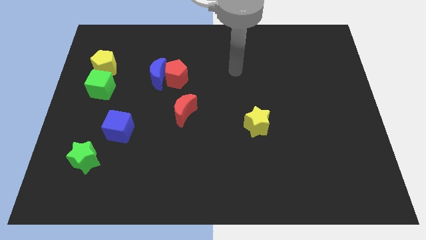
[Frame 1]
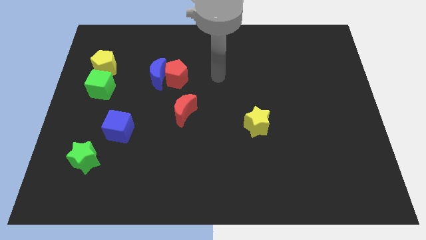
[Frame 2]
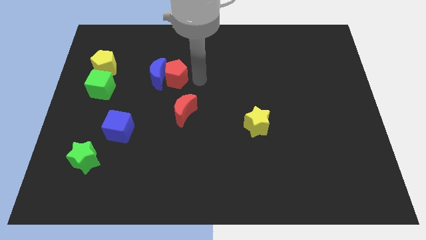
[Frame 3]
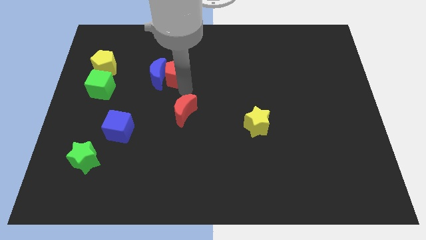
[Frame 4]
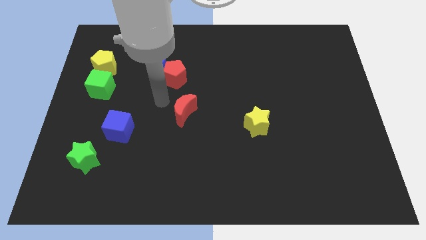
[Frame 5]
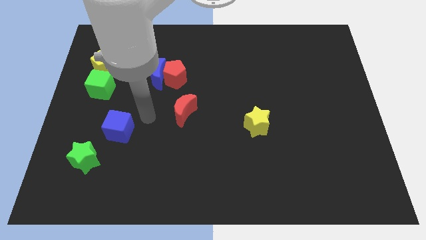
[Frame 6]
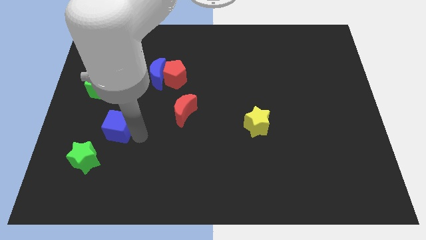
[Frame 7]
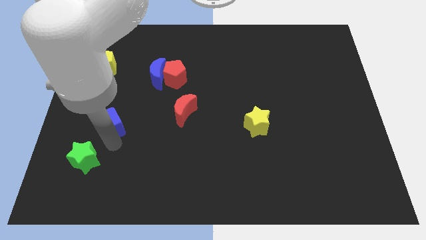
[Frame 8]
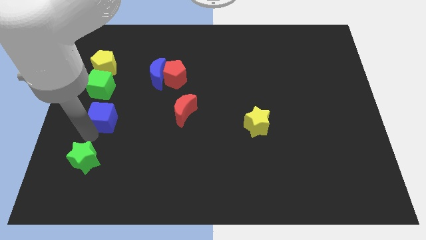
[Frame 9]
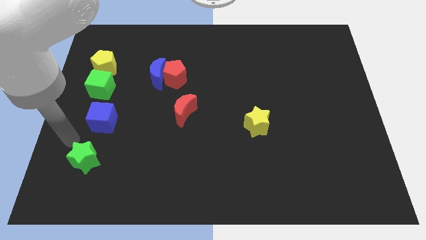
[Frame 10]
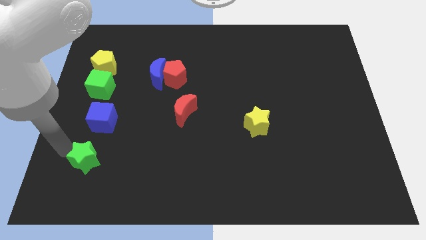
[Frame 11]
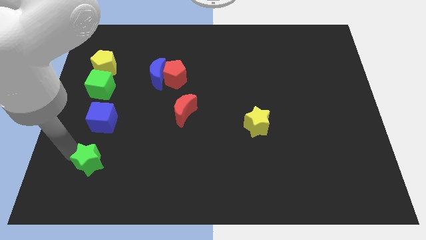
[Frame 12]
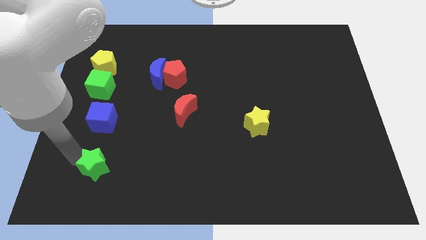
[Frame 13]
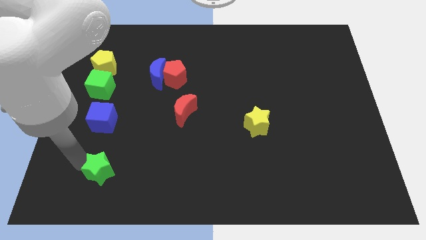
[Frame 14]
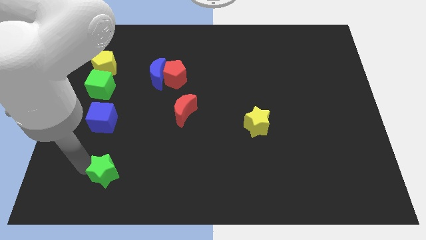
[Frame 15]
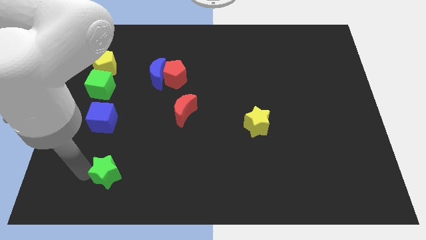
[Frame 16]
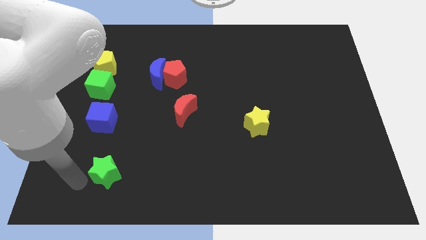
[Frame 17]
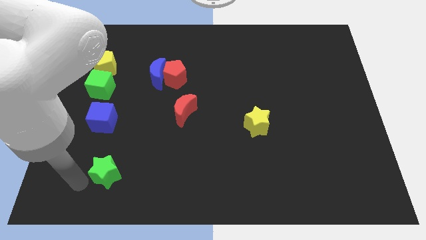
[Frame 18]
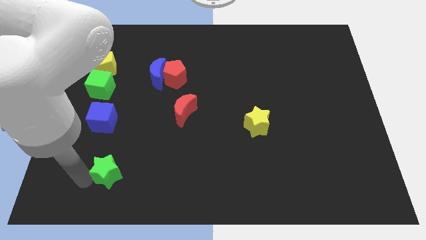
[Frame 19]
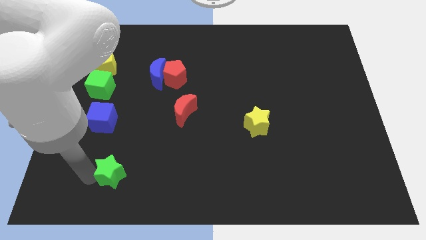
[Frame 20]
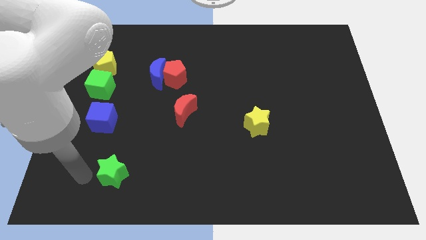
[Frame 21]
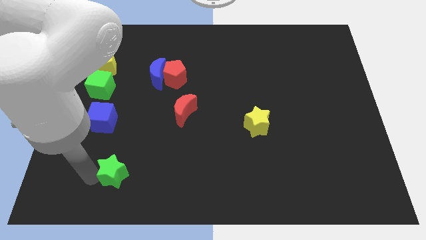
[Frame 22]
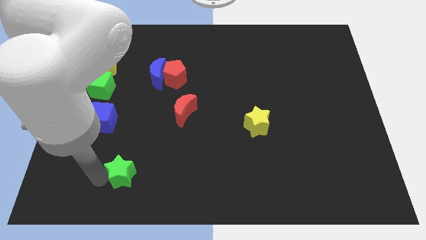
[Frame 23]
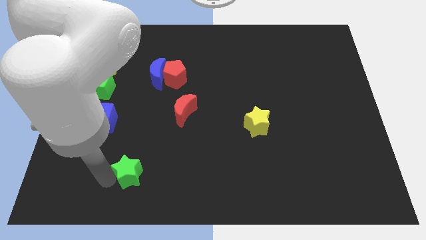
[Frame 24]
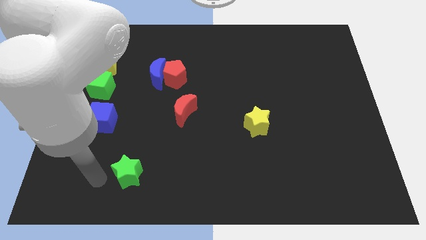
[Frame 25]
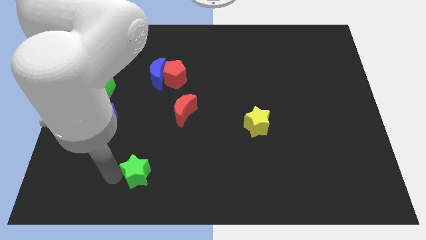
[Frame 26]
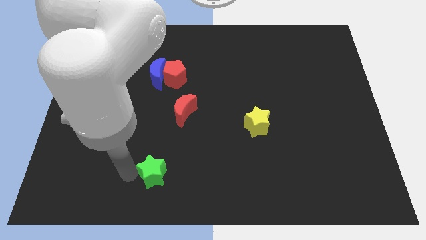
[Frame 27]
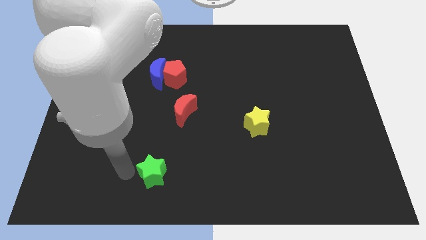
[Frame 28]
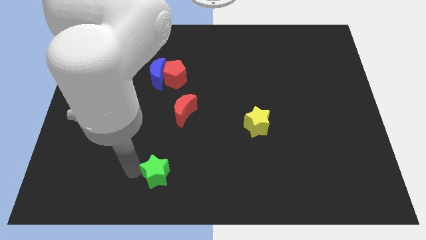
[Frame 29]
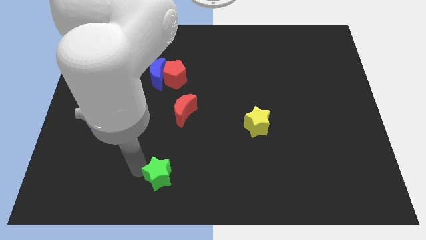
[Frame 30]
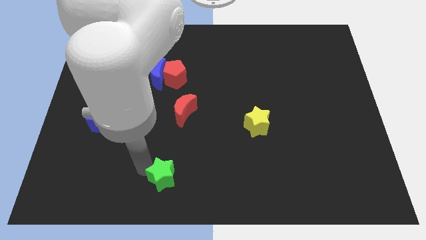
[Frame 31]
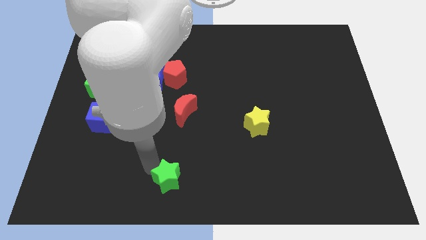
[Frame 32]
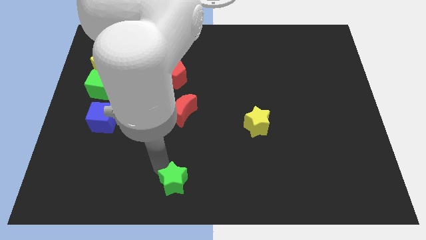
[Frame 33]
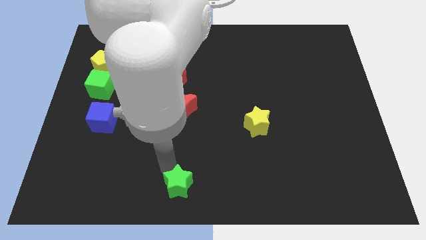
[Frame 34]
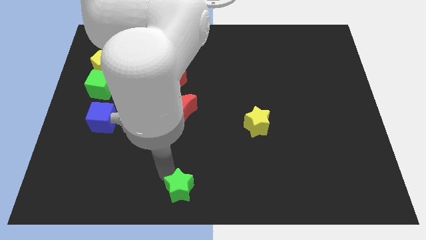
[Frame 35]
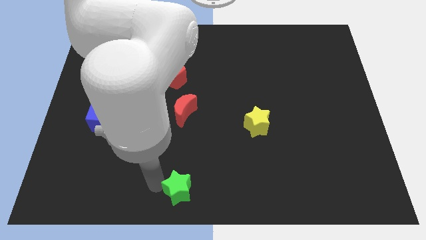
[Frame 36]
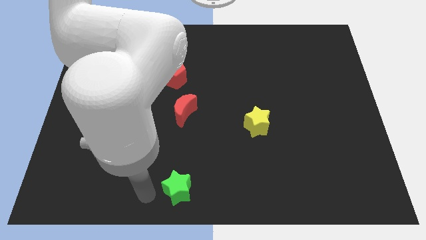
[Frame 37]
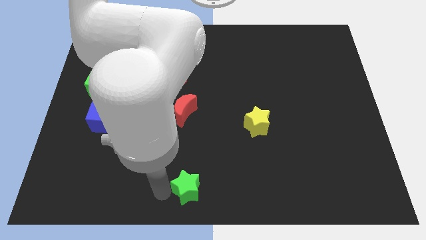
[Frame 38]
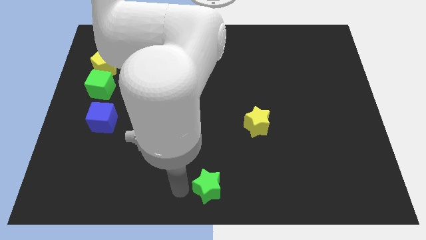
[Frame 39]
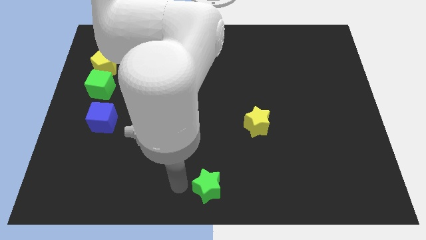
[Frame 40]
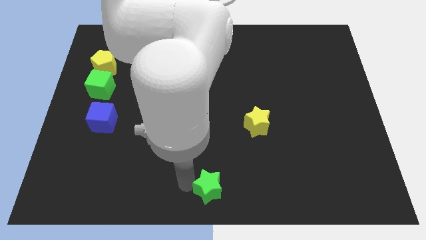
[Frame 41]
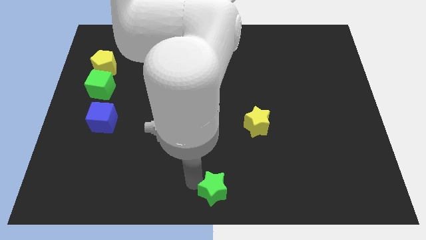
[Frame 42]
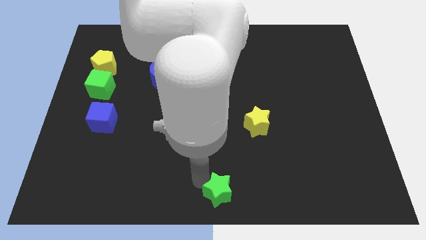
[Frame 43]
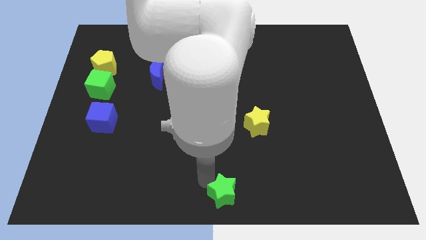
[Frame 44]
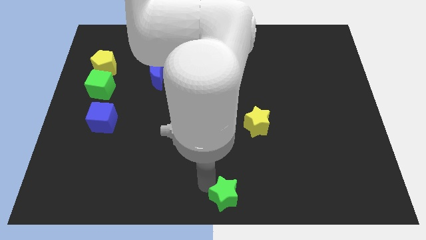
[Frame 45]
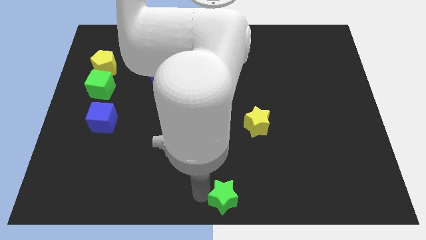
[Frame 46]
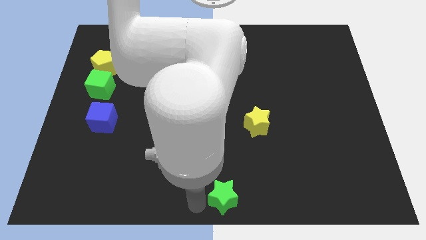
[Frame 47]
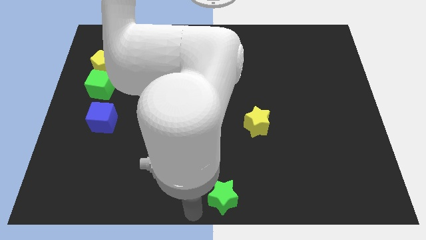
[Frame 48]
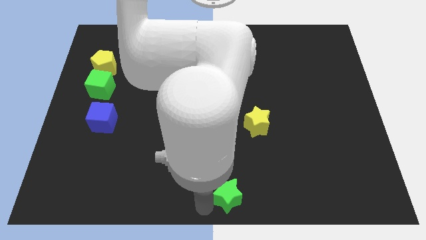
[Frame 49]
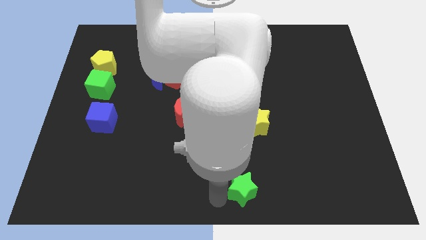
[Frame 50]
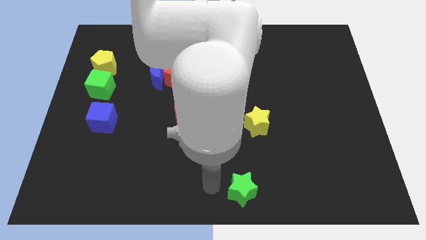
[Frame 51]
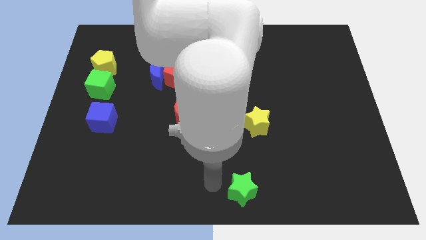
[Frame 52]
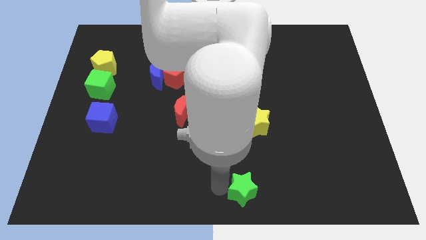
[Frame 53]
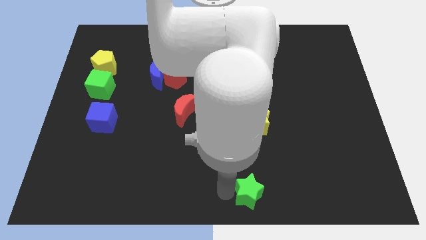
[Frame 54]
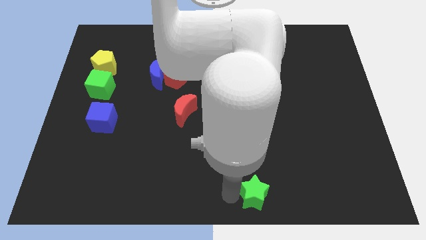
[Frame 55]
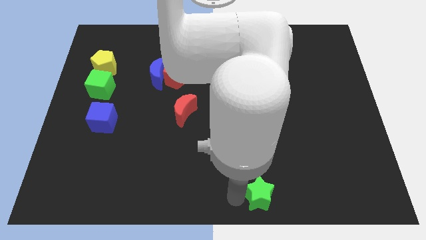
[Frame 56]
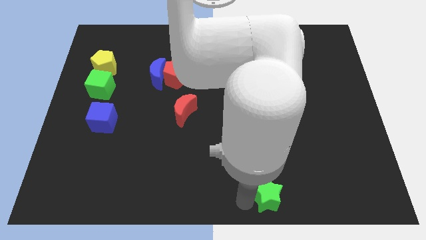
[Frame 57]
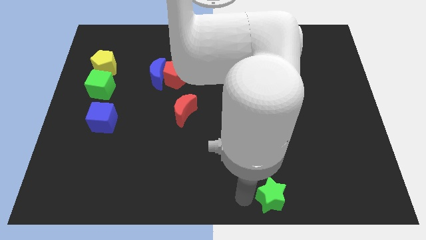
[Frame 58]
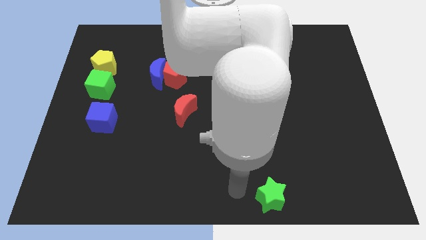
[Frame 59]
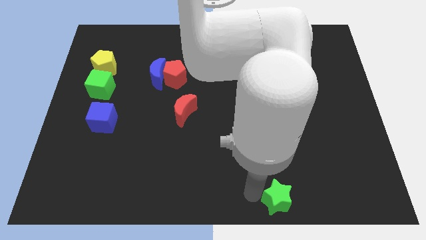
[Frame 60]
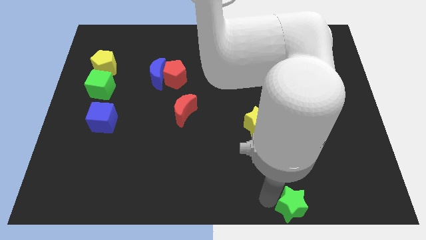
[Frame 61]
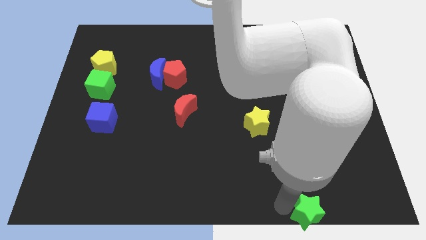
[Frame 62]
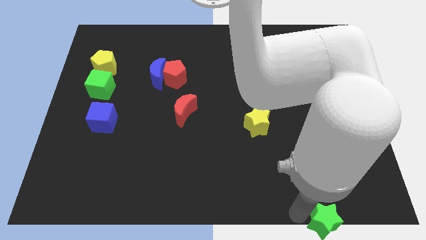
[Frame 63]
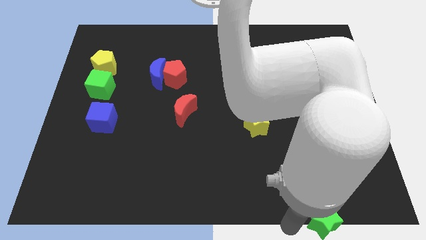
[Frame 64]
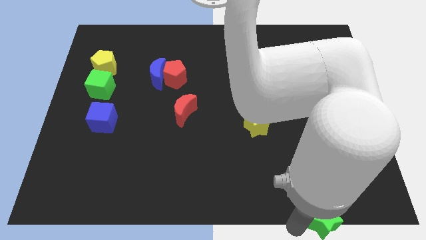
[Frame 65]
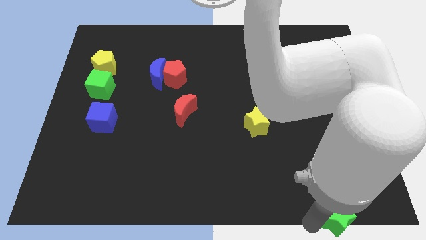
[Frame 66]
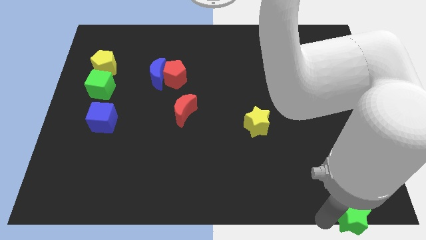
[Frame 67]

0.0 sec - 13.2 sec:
put the green star to the bottom right
